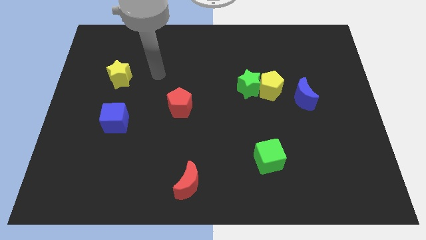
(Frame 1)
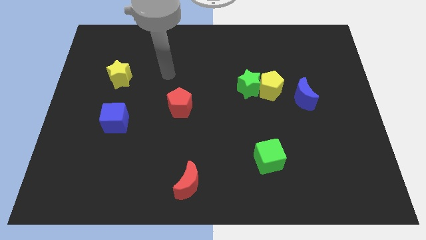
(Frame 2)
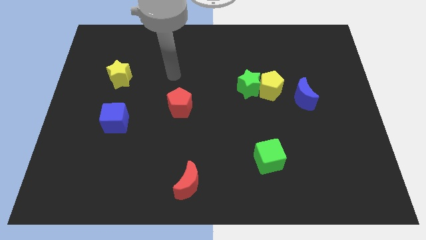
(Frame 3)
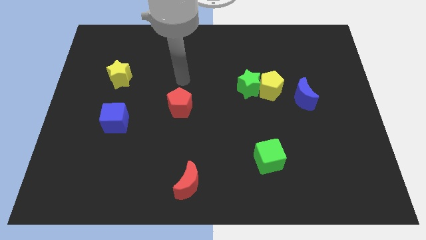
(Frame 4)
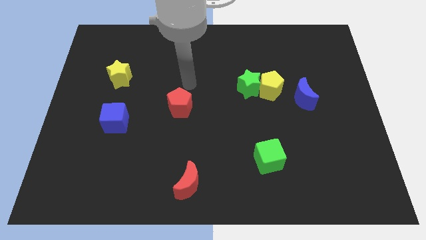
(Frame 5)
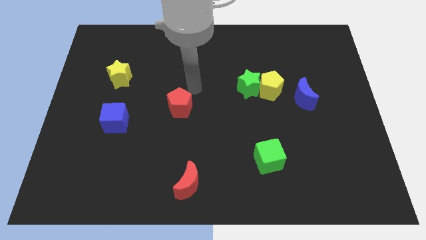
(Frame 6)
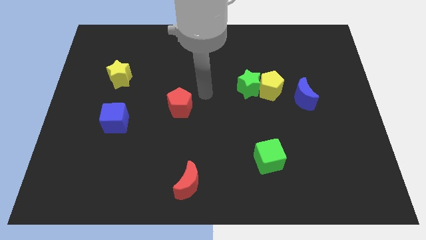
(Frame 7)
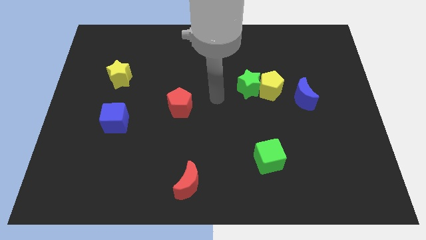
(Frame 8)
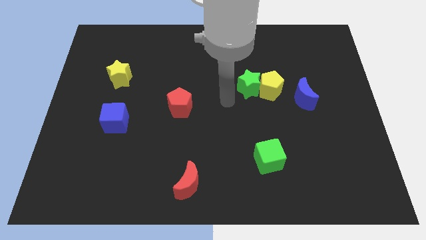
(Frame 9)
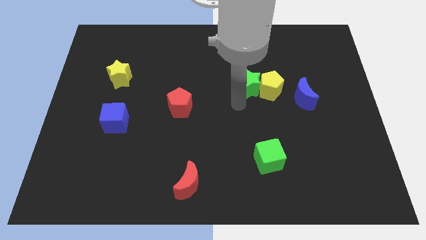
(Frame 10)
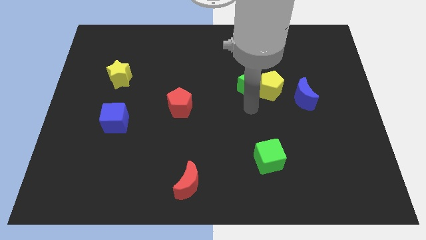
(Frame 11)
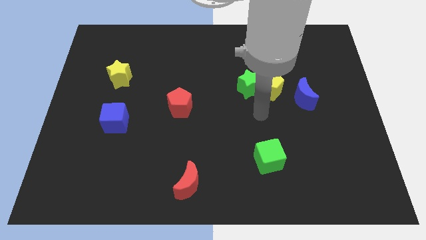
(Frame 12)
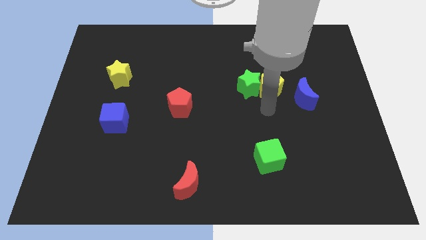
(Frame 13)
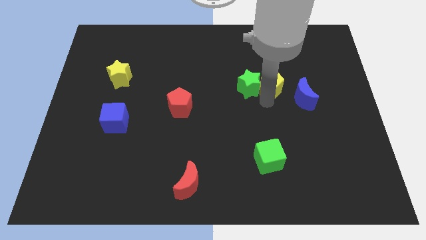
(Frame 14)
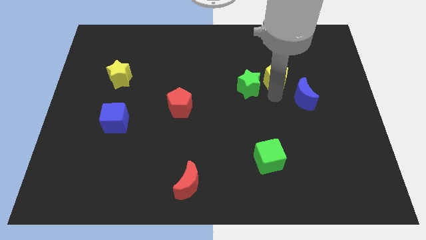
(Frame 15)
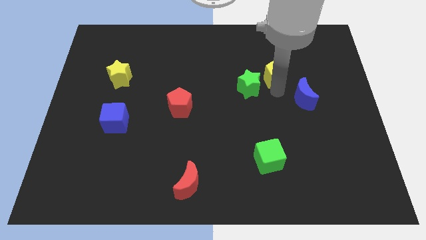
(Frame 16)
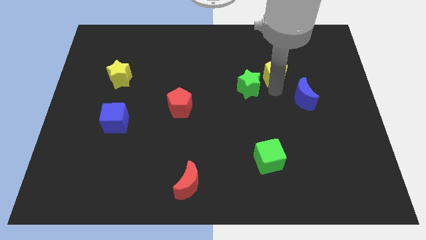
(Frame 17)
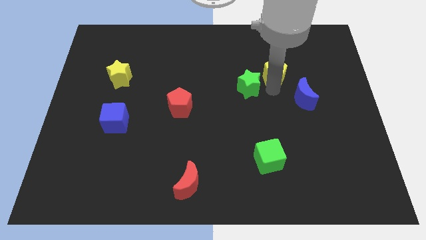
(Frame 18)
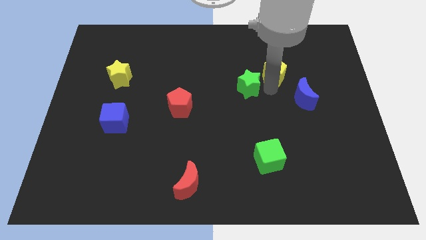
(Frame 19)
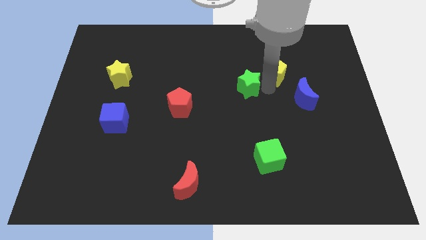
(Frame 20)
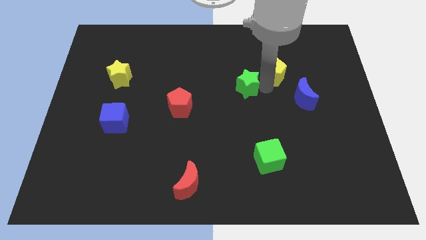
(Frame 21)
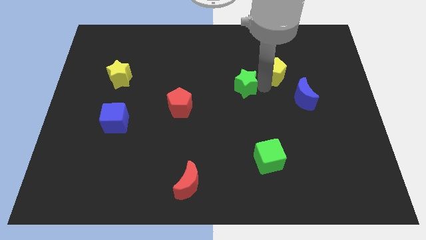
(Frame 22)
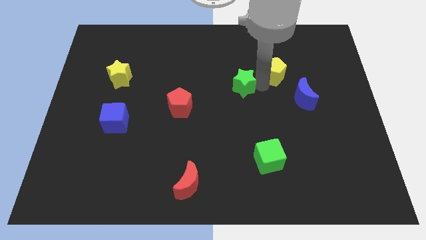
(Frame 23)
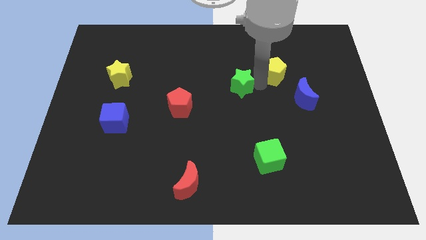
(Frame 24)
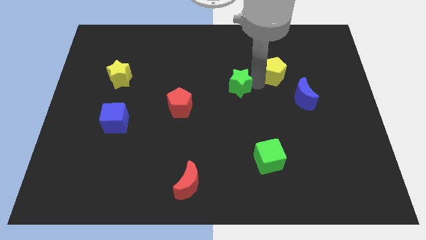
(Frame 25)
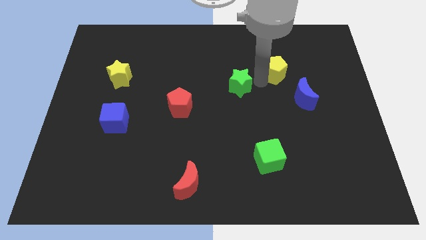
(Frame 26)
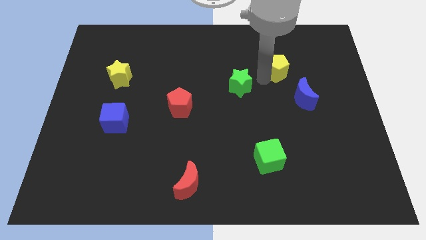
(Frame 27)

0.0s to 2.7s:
separate the green star from the yellow pentagon

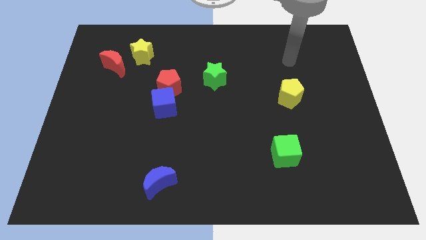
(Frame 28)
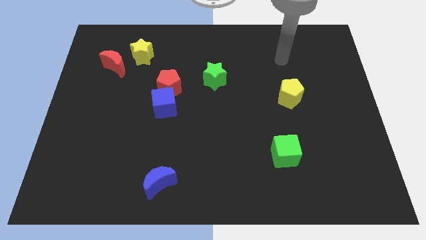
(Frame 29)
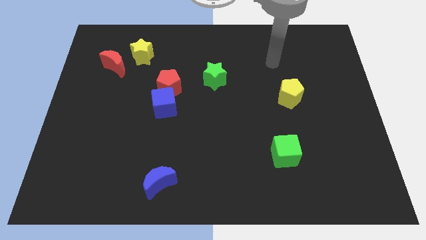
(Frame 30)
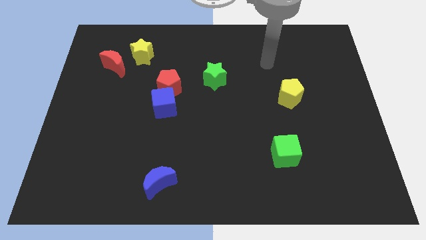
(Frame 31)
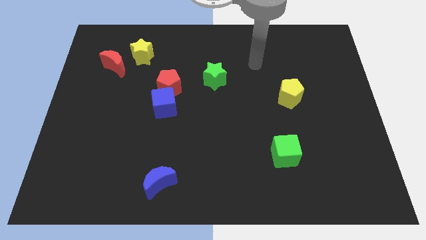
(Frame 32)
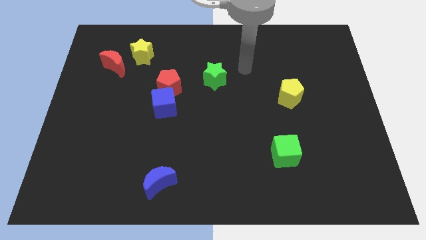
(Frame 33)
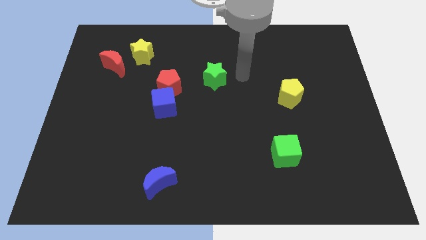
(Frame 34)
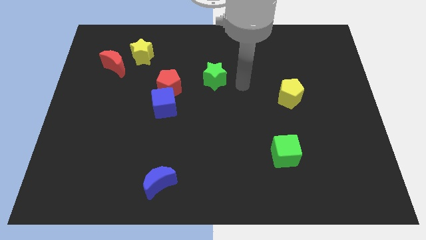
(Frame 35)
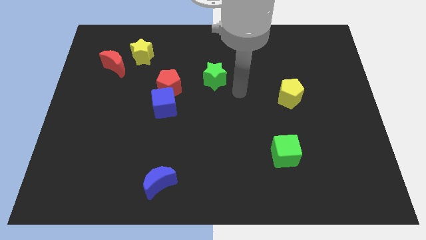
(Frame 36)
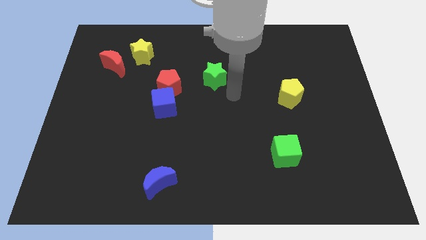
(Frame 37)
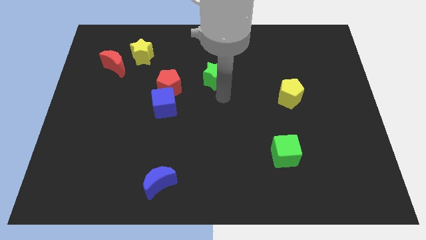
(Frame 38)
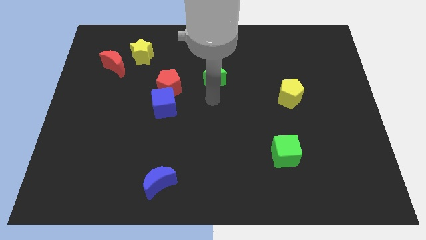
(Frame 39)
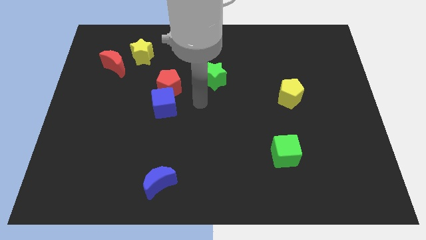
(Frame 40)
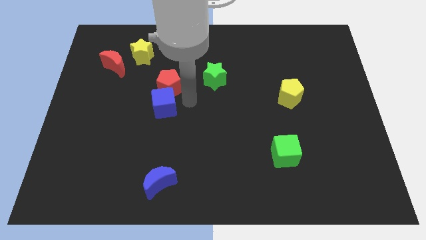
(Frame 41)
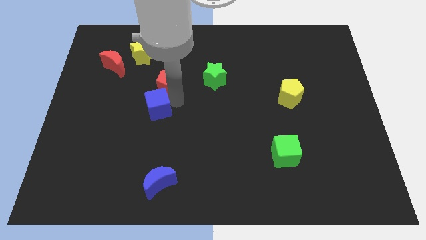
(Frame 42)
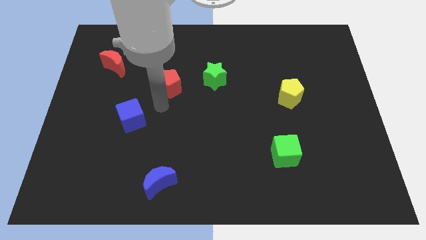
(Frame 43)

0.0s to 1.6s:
pull the red pentagon apart from the blue cube

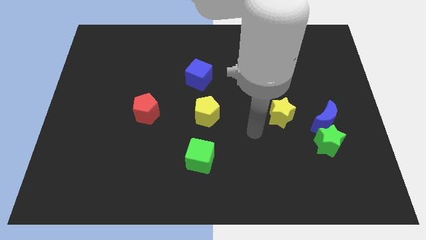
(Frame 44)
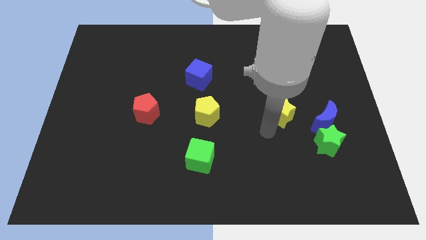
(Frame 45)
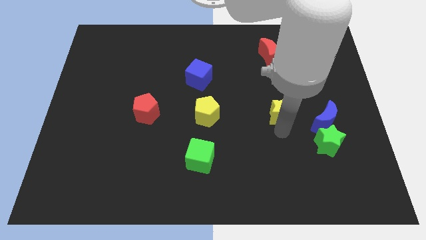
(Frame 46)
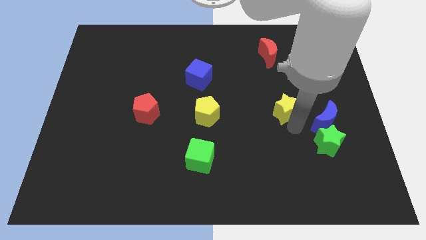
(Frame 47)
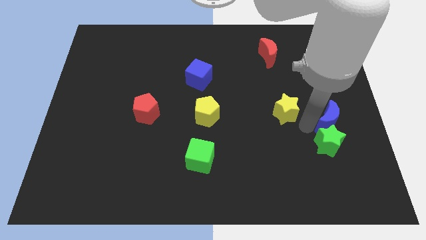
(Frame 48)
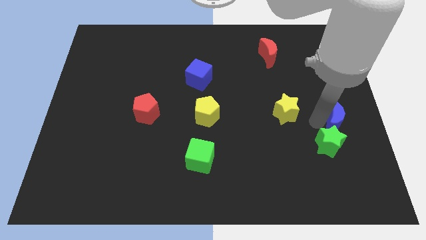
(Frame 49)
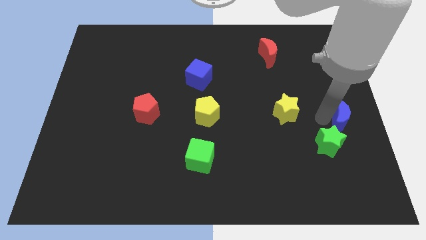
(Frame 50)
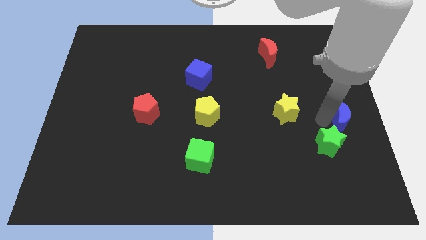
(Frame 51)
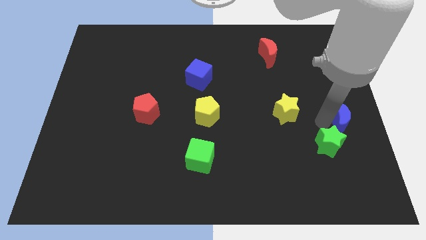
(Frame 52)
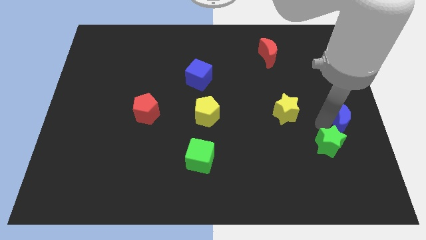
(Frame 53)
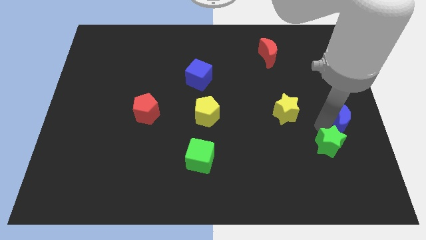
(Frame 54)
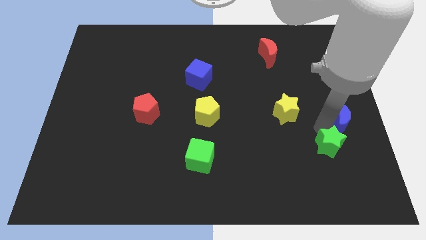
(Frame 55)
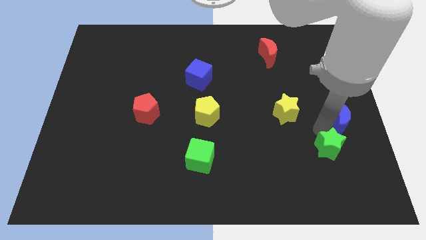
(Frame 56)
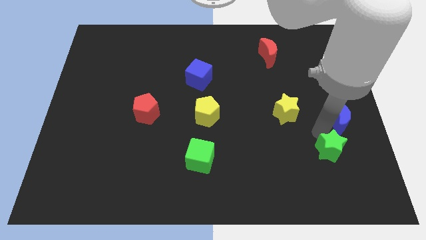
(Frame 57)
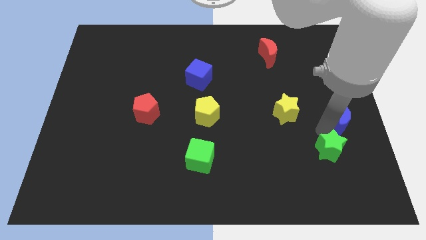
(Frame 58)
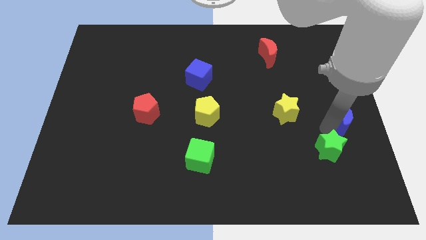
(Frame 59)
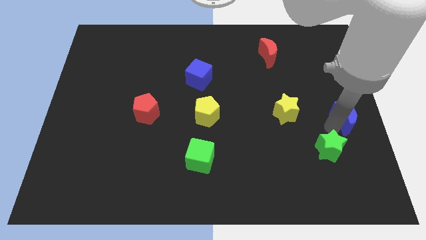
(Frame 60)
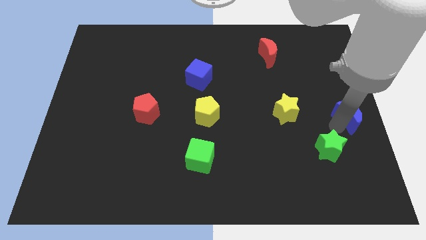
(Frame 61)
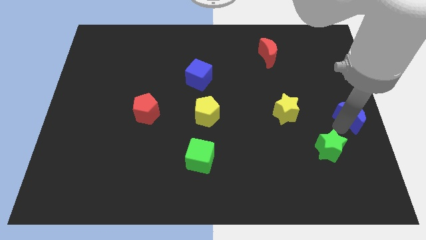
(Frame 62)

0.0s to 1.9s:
pull the green star apart from the blue moon

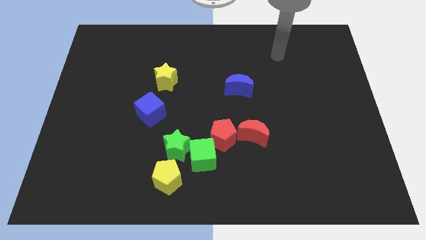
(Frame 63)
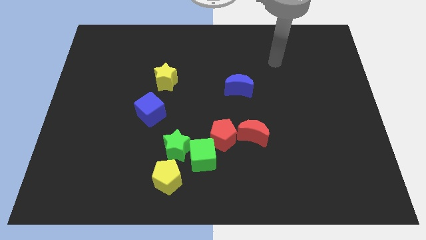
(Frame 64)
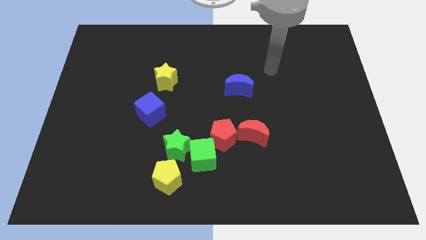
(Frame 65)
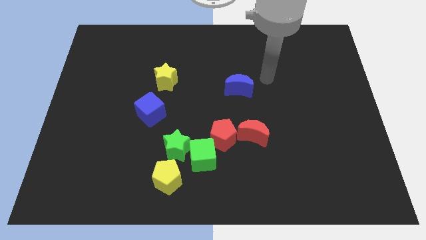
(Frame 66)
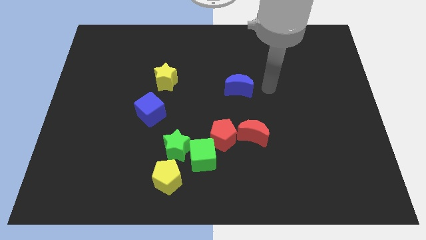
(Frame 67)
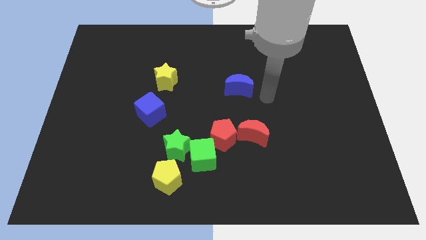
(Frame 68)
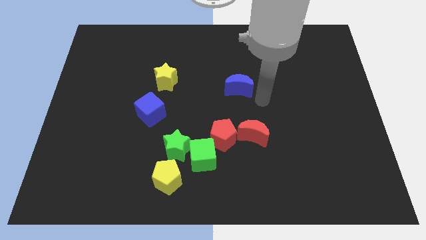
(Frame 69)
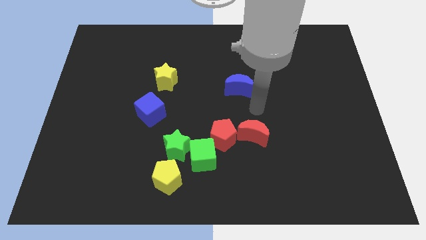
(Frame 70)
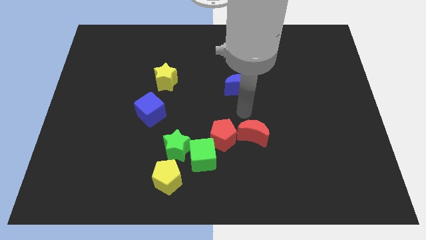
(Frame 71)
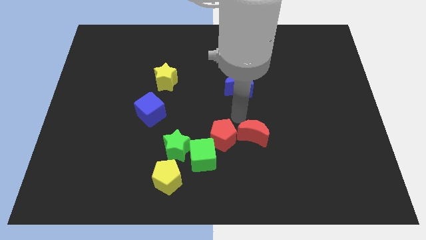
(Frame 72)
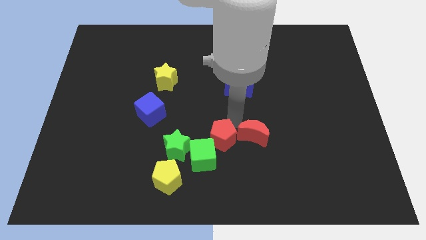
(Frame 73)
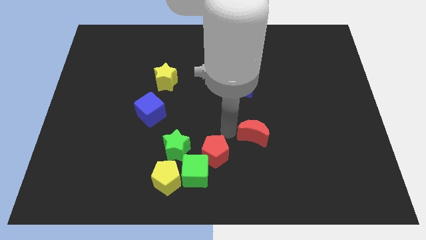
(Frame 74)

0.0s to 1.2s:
separate the red moon from the red pentagon

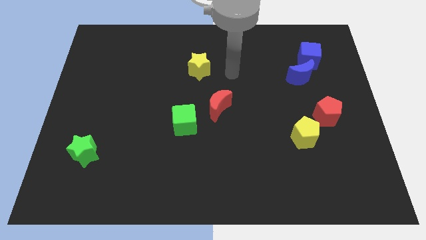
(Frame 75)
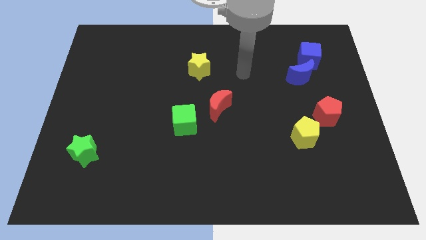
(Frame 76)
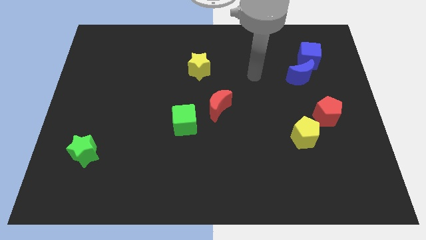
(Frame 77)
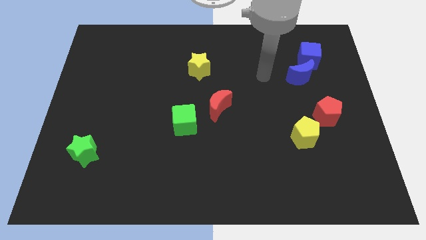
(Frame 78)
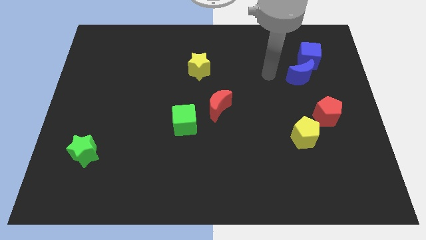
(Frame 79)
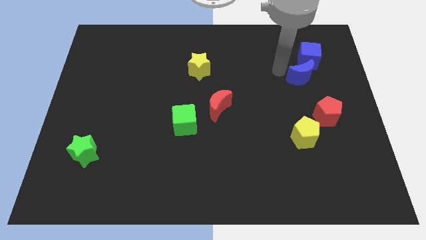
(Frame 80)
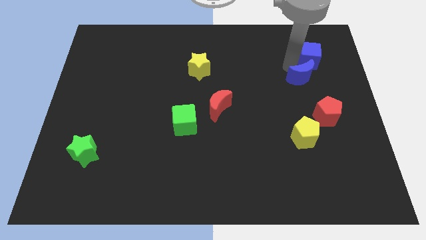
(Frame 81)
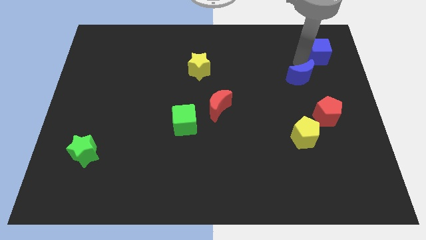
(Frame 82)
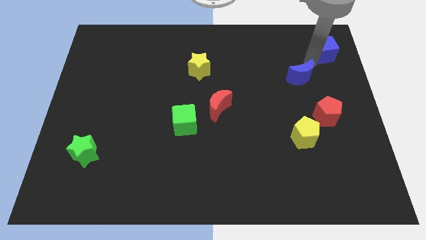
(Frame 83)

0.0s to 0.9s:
move the blue moon away from the blue cube

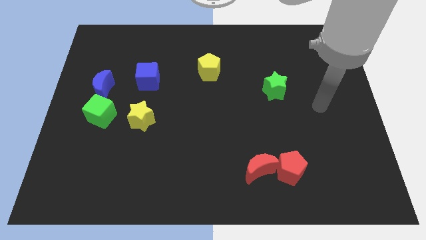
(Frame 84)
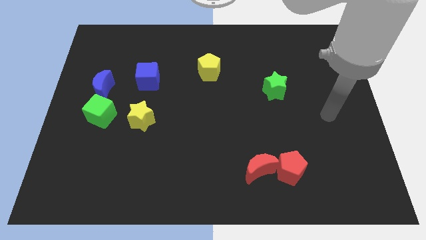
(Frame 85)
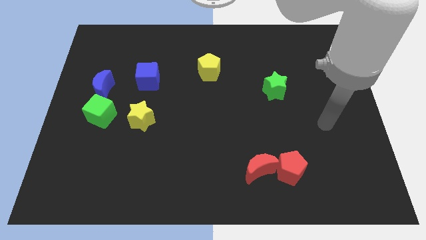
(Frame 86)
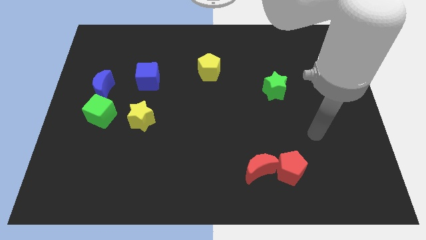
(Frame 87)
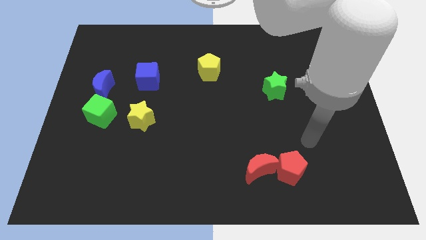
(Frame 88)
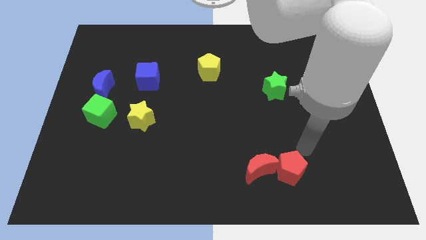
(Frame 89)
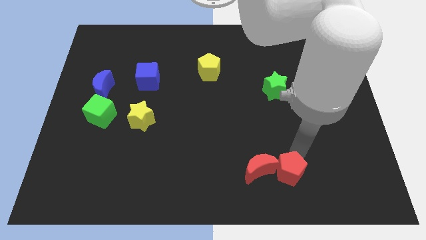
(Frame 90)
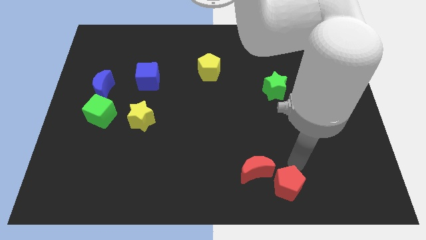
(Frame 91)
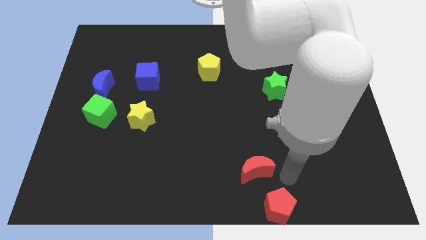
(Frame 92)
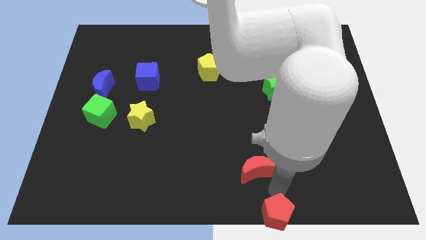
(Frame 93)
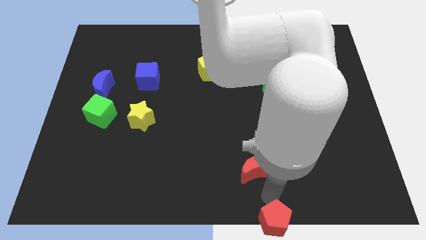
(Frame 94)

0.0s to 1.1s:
move the red moon away from the red pentagon
